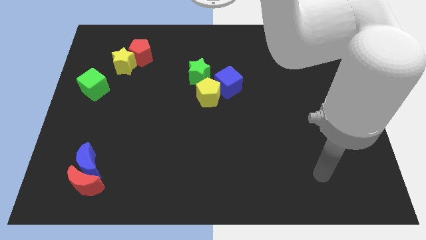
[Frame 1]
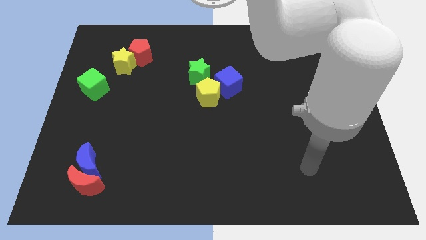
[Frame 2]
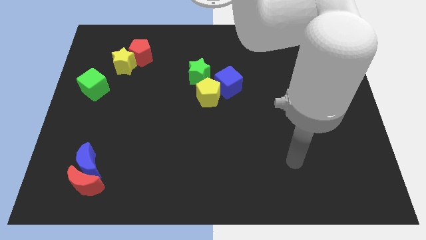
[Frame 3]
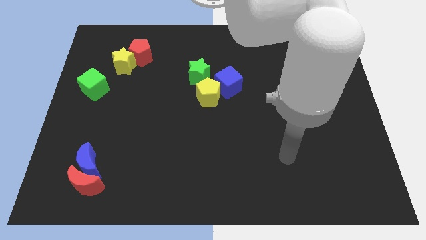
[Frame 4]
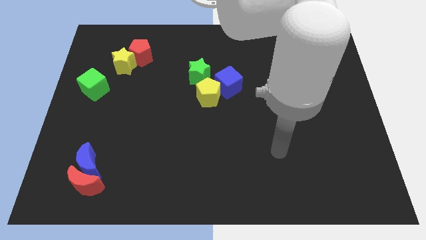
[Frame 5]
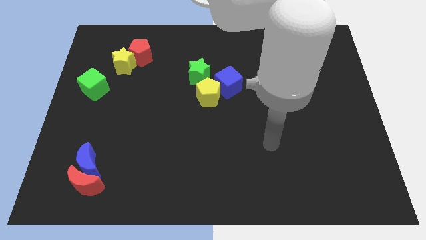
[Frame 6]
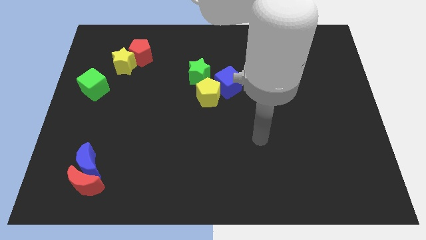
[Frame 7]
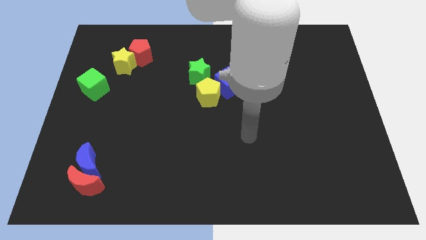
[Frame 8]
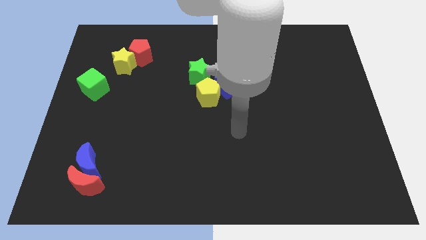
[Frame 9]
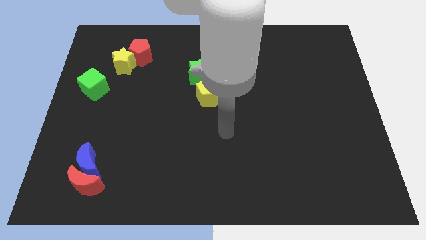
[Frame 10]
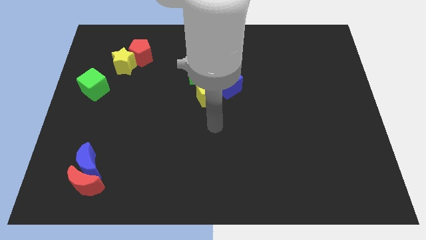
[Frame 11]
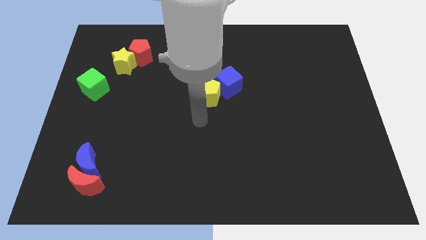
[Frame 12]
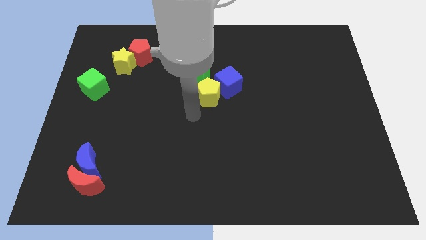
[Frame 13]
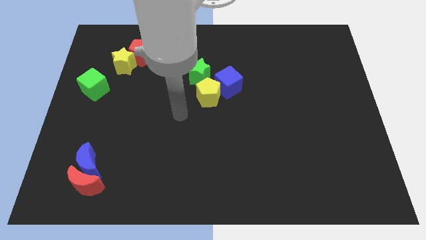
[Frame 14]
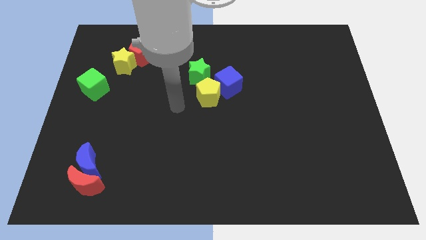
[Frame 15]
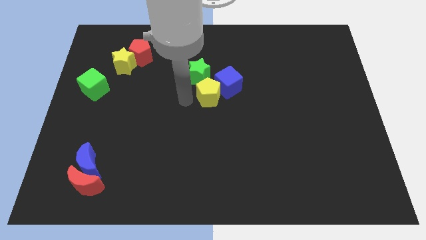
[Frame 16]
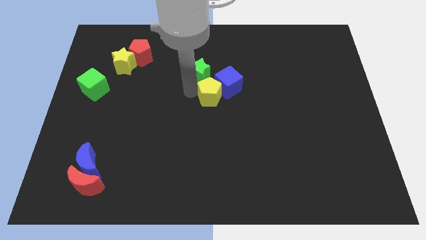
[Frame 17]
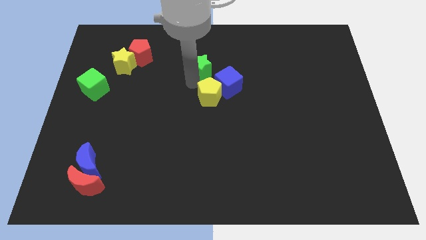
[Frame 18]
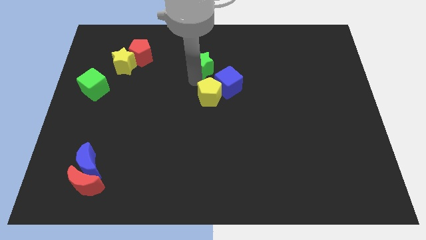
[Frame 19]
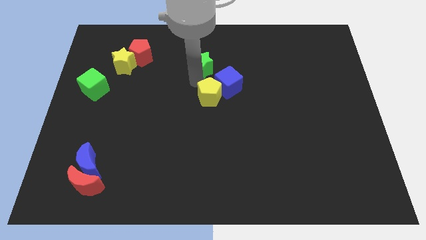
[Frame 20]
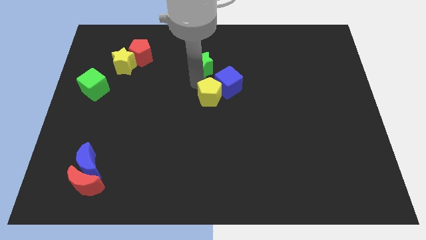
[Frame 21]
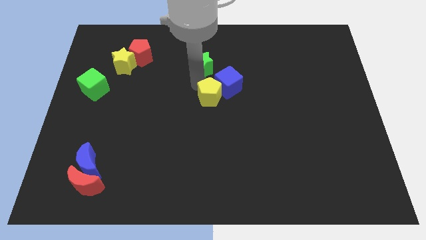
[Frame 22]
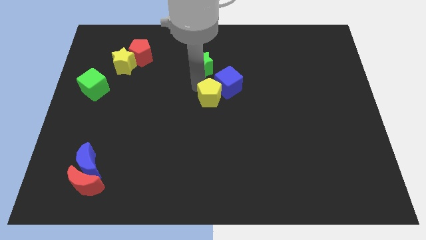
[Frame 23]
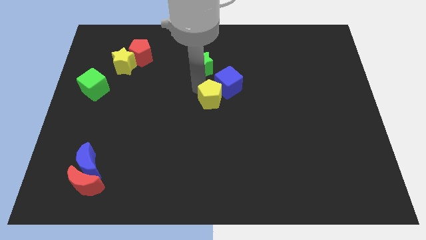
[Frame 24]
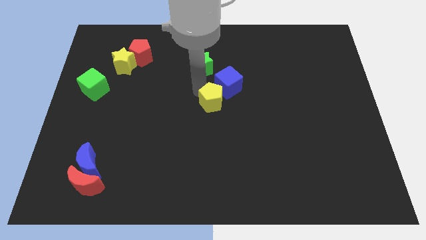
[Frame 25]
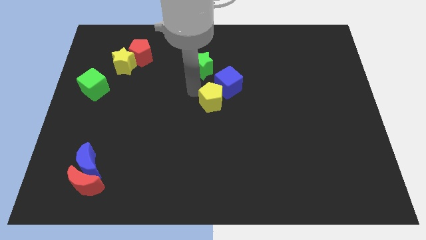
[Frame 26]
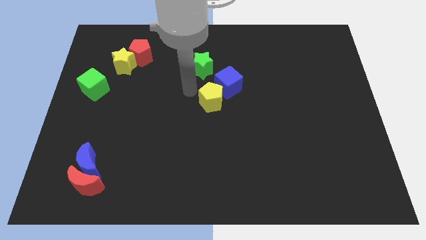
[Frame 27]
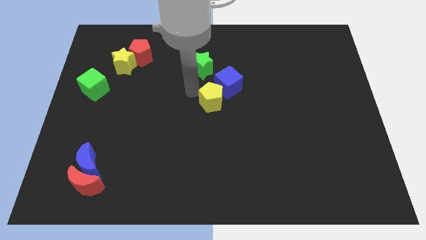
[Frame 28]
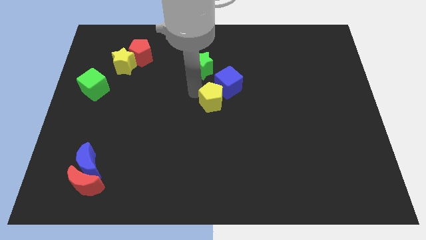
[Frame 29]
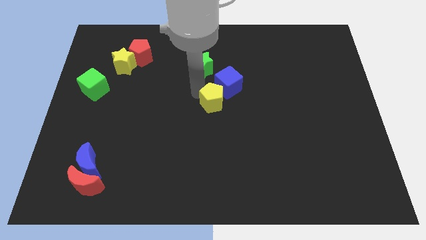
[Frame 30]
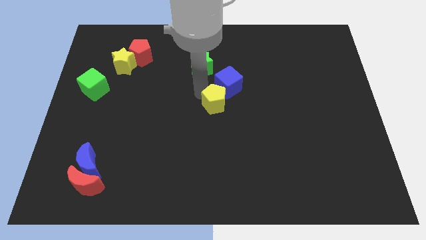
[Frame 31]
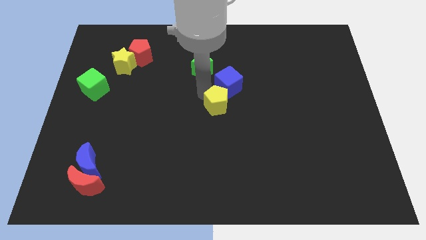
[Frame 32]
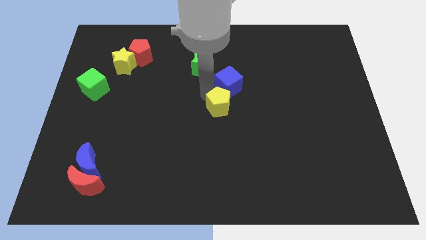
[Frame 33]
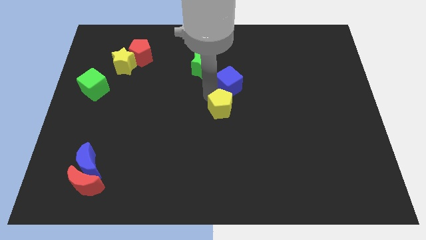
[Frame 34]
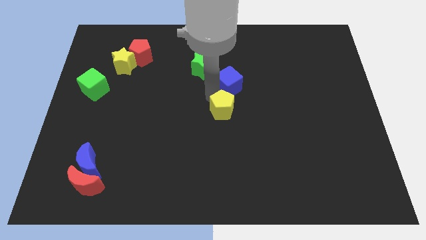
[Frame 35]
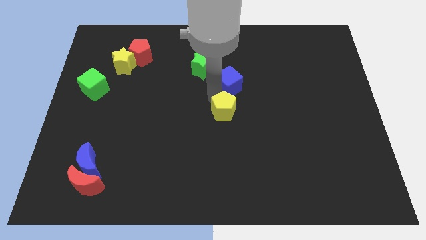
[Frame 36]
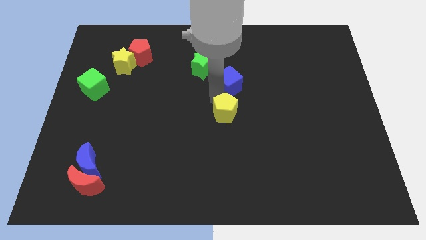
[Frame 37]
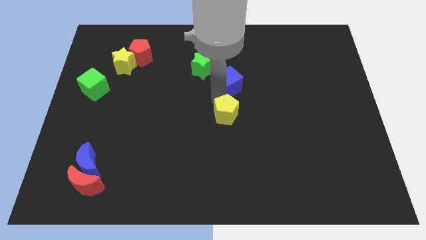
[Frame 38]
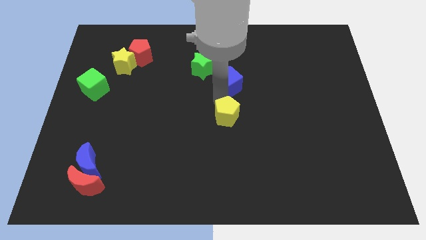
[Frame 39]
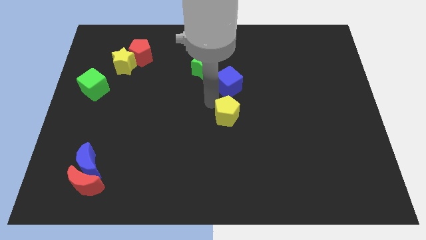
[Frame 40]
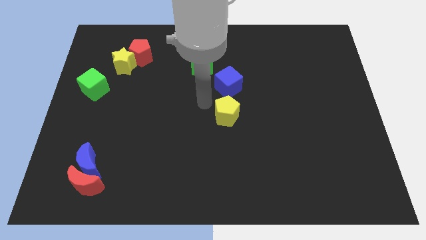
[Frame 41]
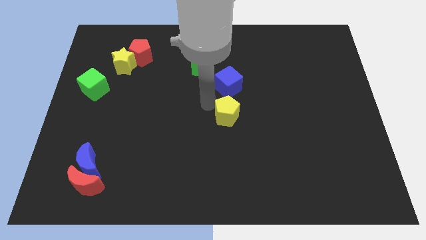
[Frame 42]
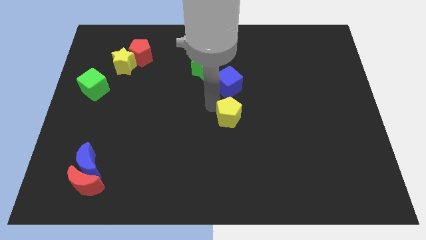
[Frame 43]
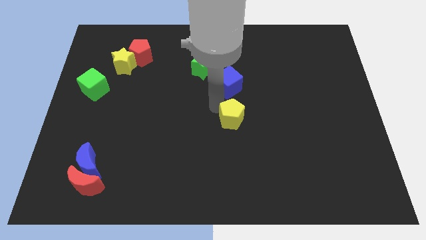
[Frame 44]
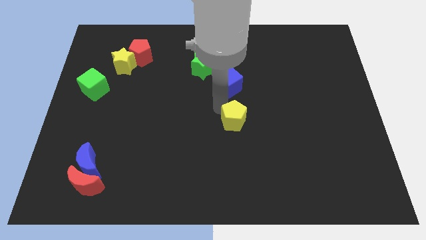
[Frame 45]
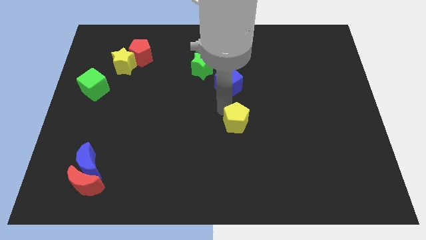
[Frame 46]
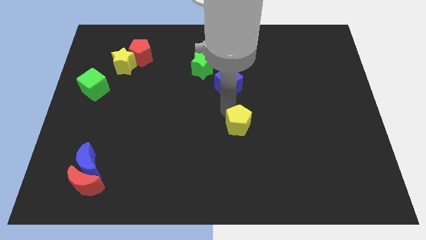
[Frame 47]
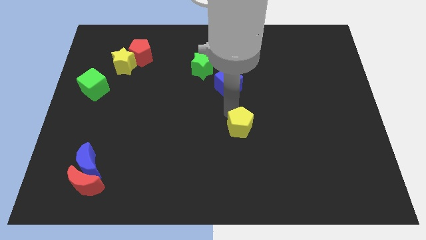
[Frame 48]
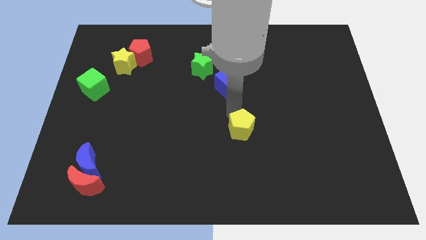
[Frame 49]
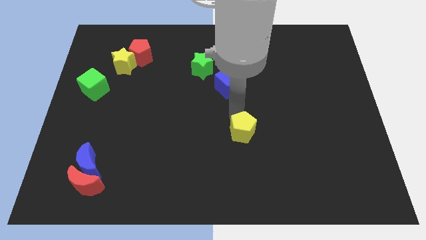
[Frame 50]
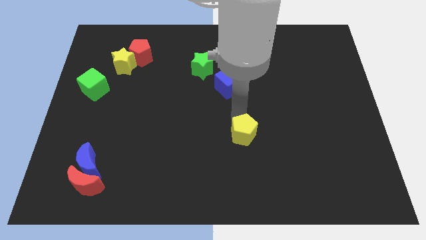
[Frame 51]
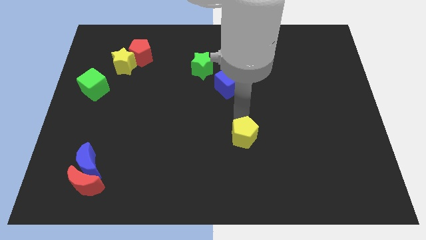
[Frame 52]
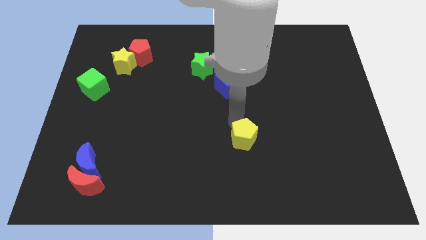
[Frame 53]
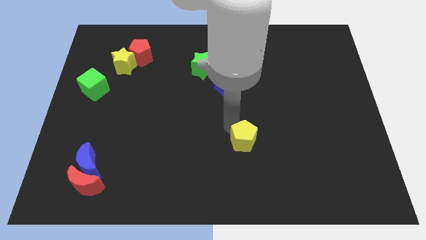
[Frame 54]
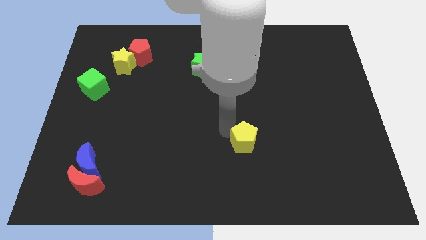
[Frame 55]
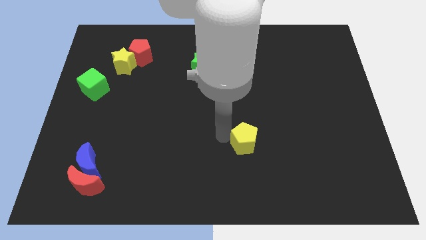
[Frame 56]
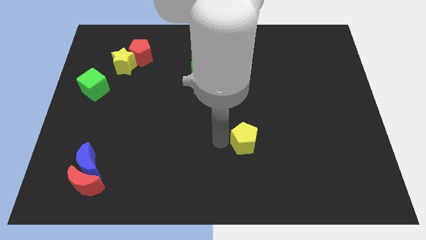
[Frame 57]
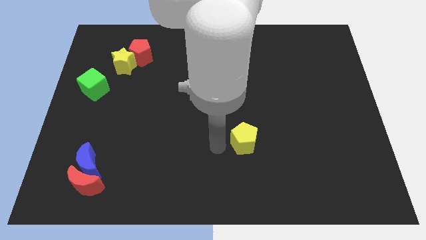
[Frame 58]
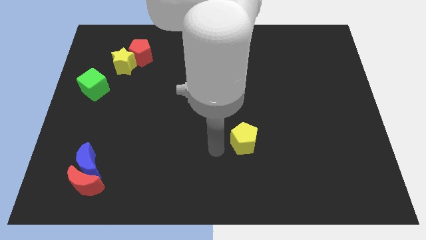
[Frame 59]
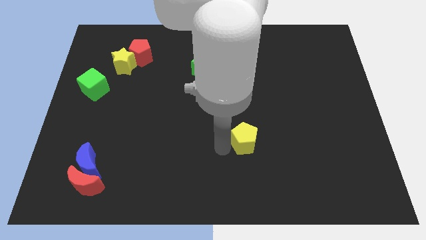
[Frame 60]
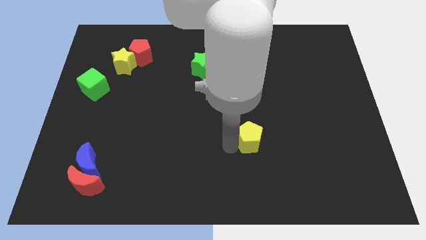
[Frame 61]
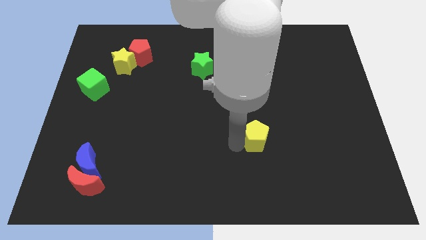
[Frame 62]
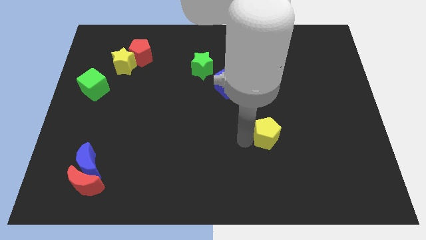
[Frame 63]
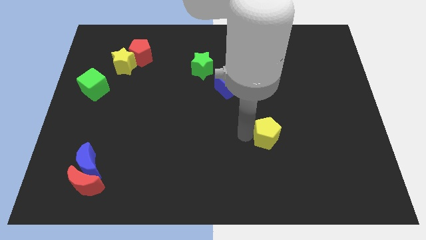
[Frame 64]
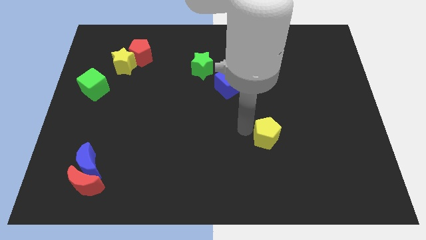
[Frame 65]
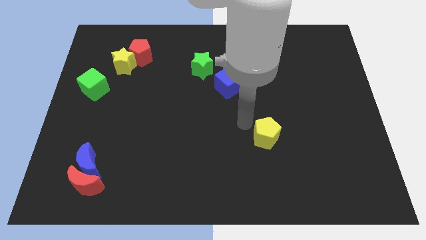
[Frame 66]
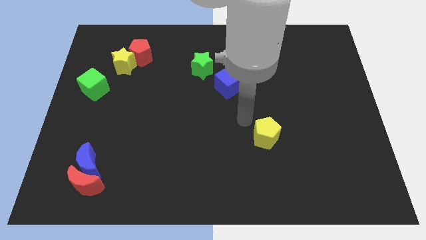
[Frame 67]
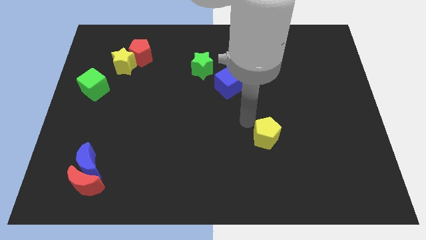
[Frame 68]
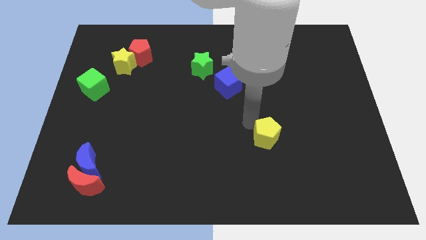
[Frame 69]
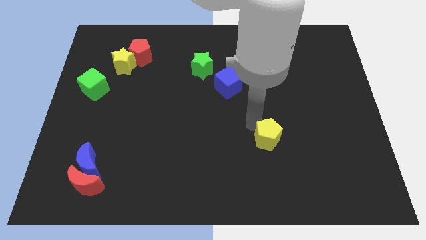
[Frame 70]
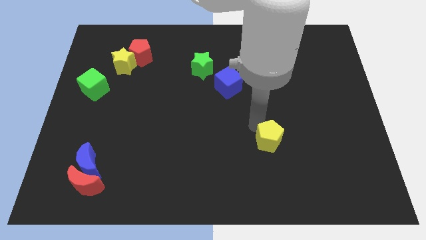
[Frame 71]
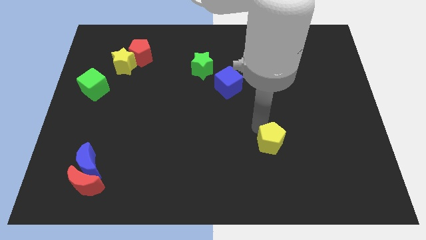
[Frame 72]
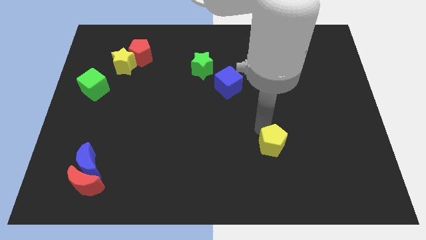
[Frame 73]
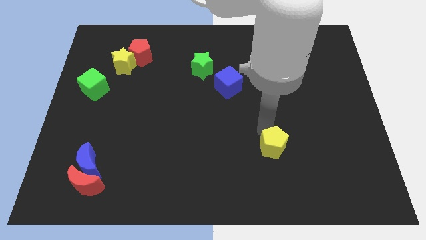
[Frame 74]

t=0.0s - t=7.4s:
move the yellow pentagon downwards and right

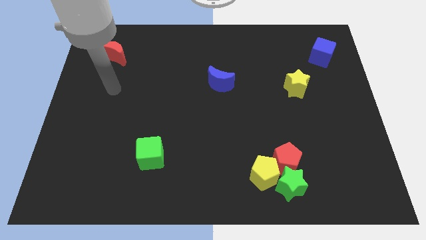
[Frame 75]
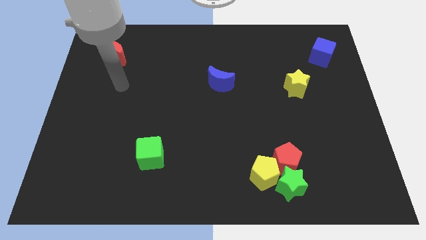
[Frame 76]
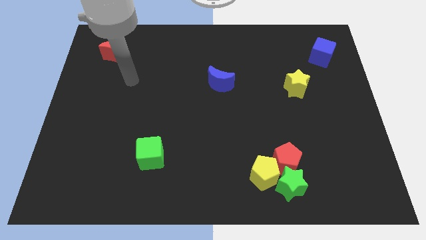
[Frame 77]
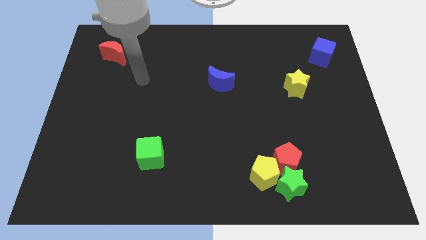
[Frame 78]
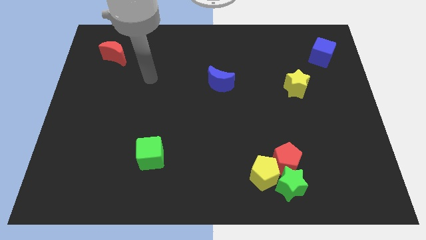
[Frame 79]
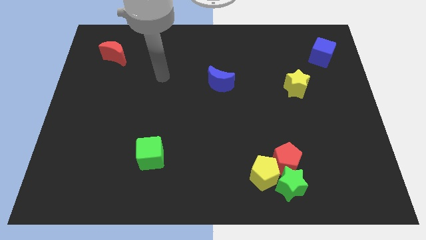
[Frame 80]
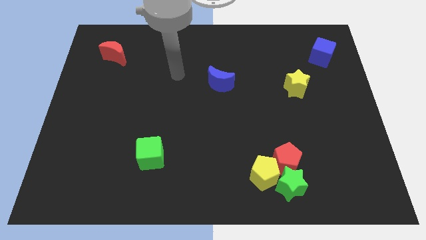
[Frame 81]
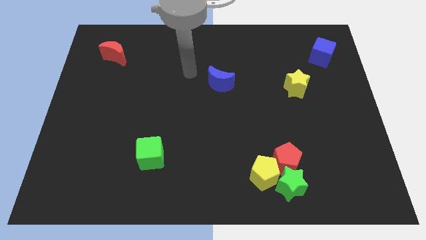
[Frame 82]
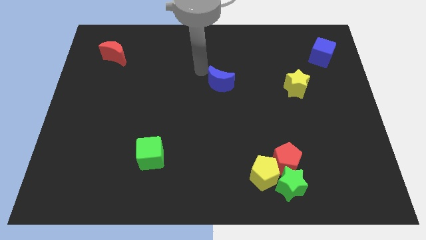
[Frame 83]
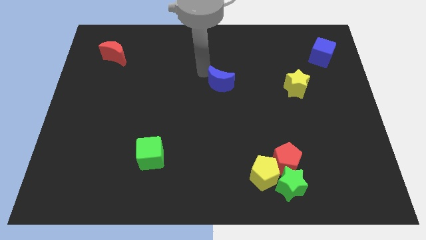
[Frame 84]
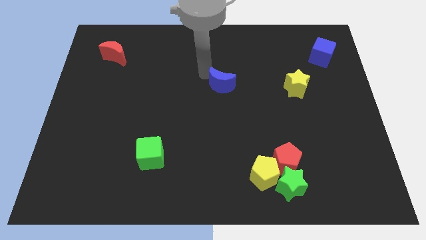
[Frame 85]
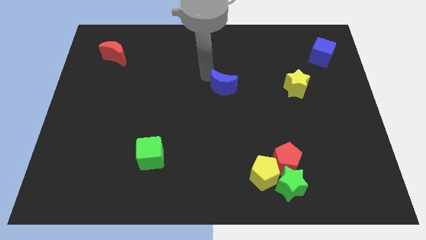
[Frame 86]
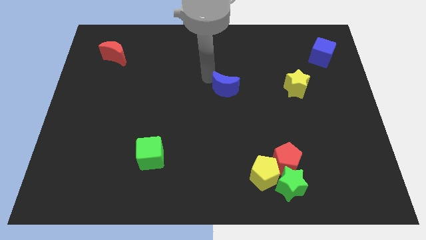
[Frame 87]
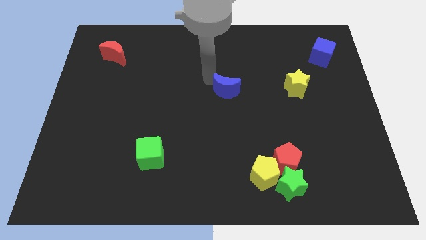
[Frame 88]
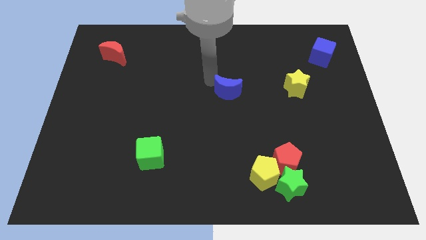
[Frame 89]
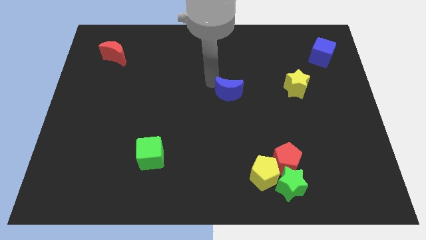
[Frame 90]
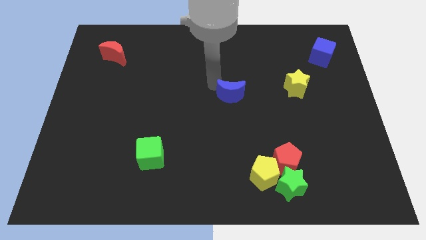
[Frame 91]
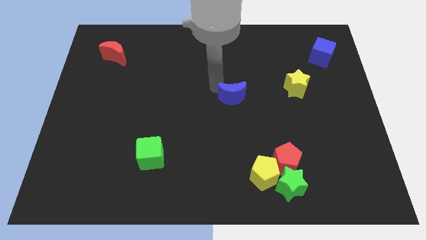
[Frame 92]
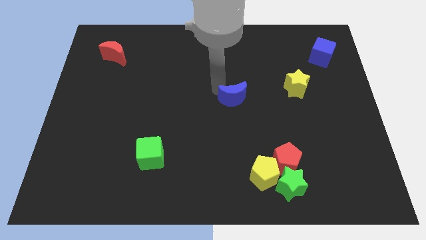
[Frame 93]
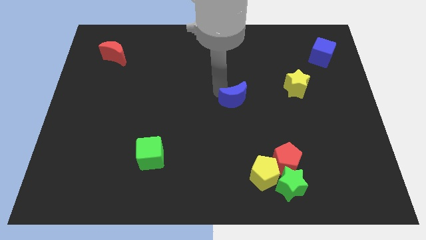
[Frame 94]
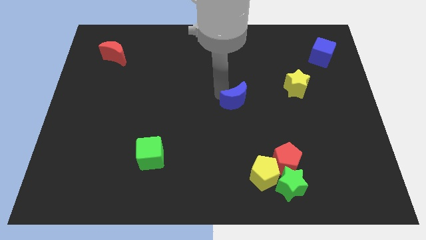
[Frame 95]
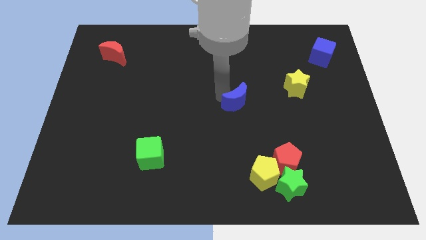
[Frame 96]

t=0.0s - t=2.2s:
push the blue moon downwards and right diagonally somewhat
